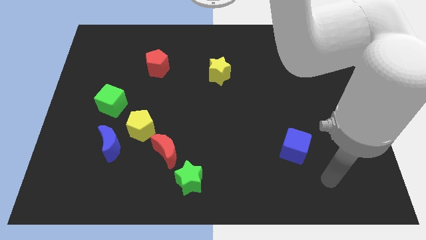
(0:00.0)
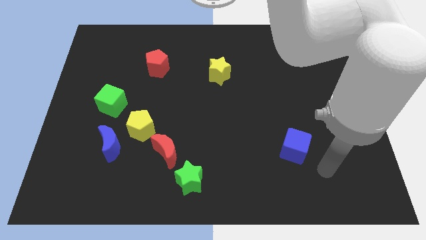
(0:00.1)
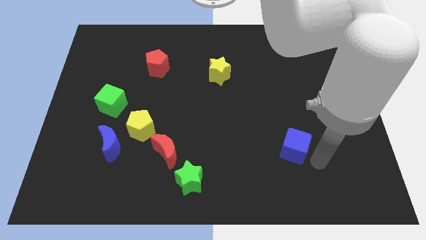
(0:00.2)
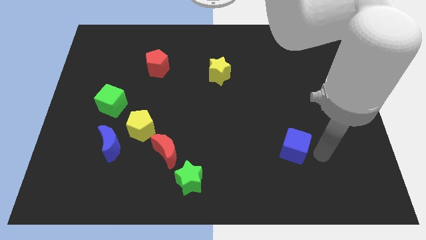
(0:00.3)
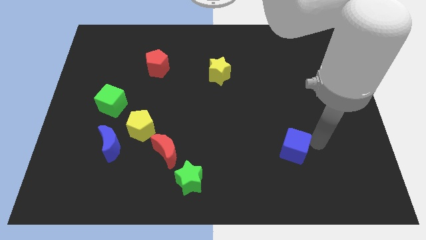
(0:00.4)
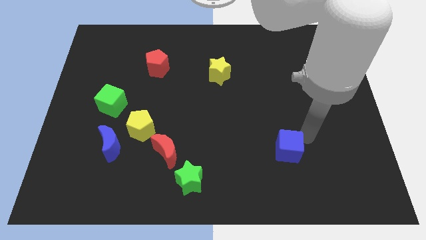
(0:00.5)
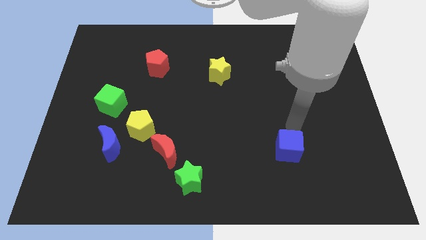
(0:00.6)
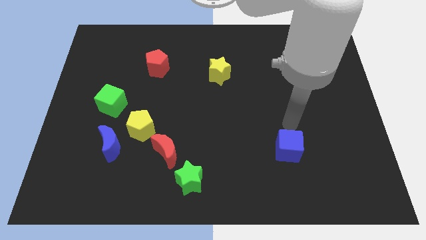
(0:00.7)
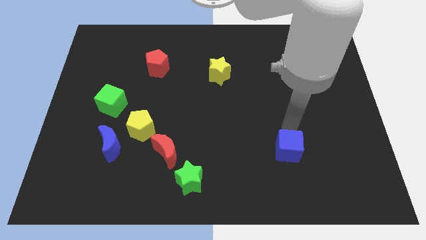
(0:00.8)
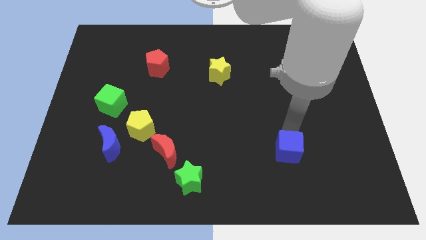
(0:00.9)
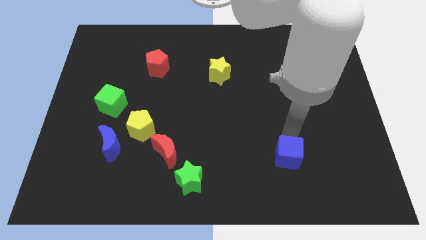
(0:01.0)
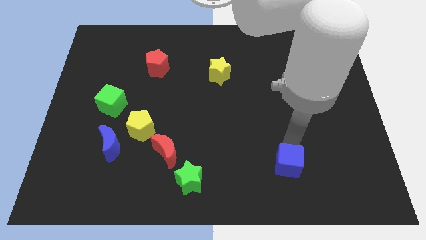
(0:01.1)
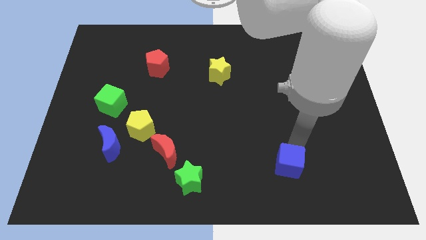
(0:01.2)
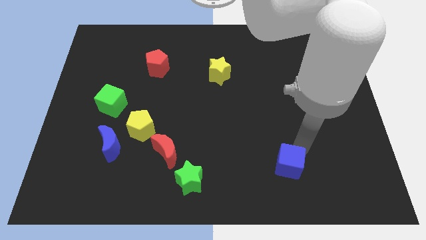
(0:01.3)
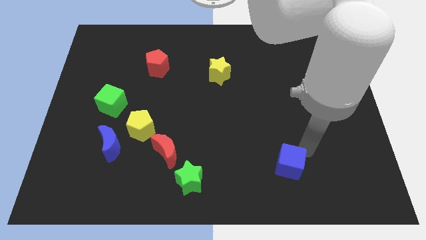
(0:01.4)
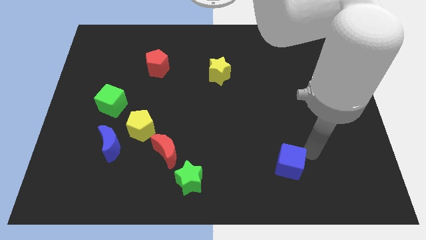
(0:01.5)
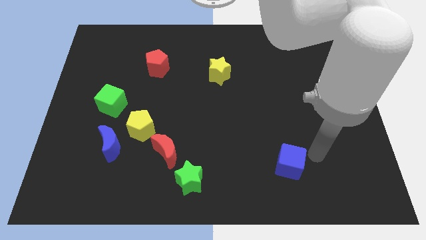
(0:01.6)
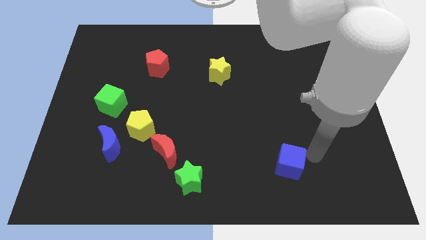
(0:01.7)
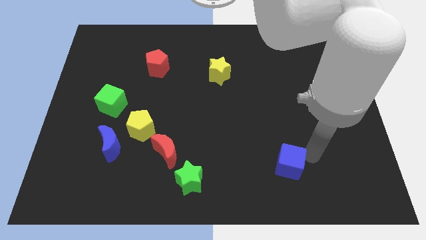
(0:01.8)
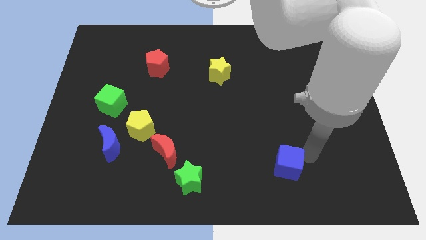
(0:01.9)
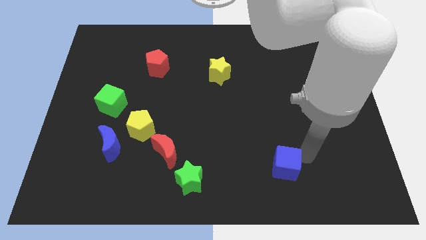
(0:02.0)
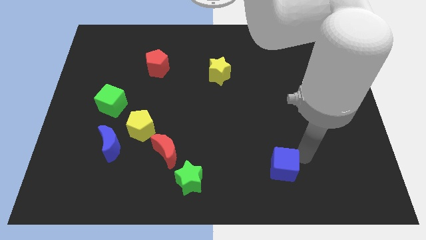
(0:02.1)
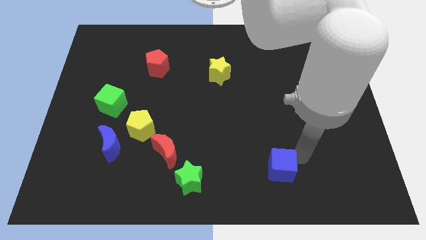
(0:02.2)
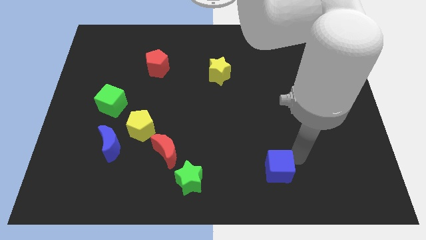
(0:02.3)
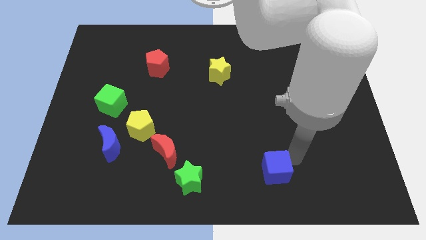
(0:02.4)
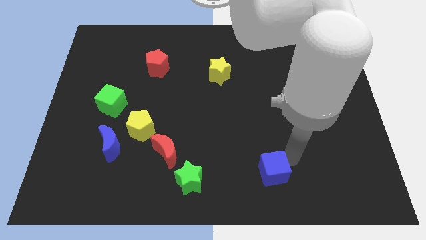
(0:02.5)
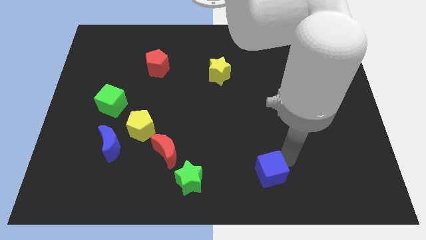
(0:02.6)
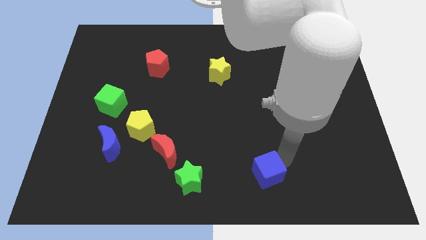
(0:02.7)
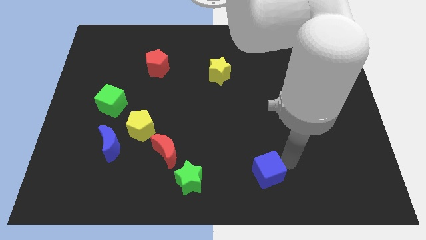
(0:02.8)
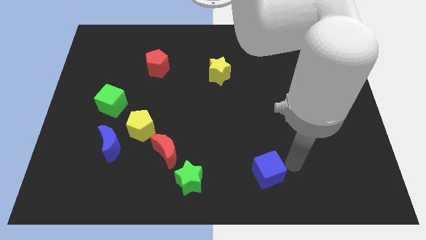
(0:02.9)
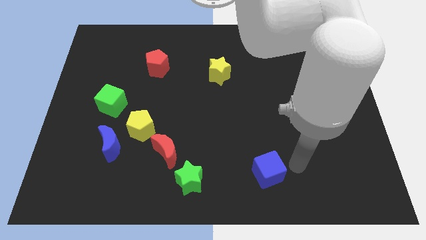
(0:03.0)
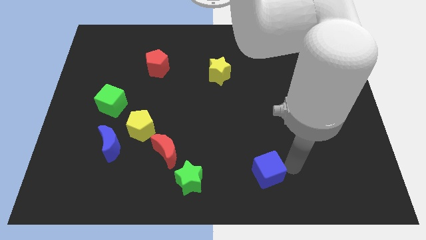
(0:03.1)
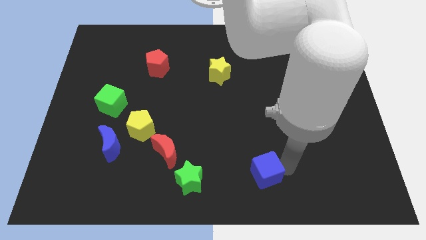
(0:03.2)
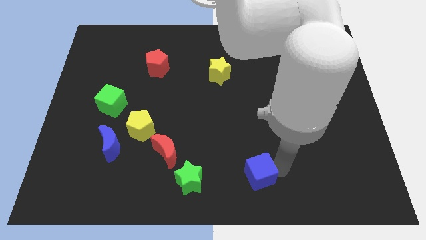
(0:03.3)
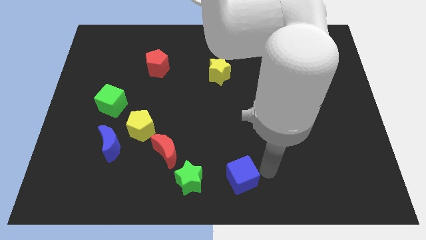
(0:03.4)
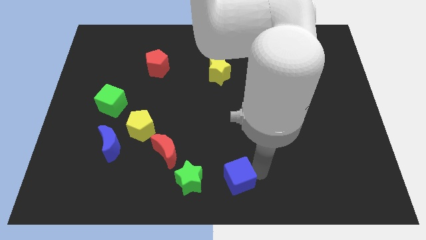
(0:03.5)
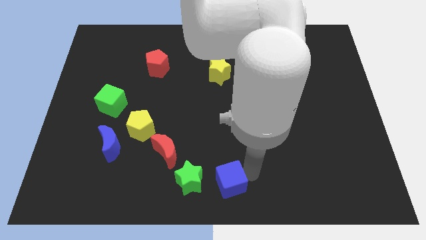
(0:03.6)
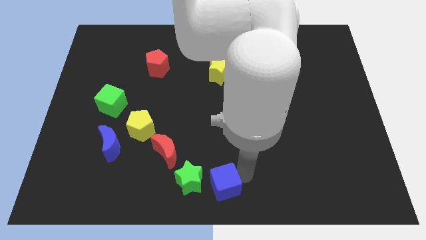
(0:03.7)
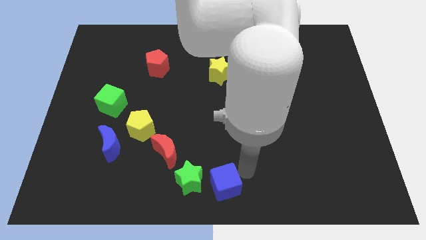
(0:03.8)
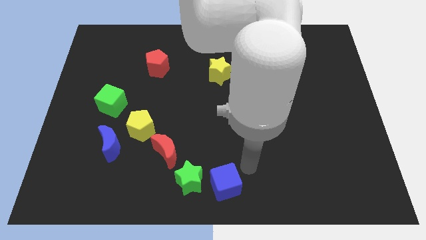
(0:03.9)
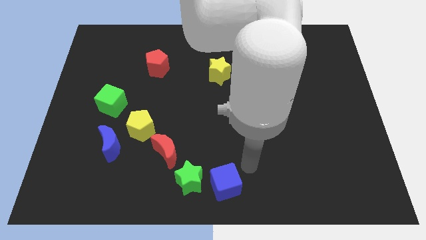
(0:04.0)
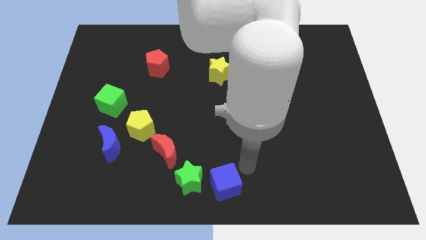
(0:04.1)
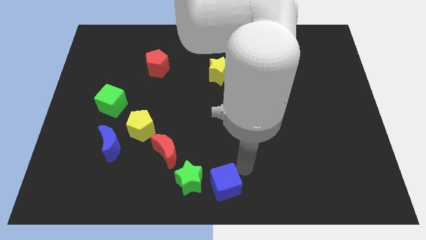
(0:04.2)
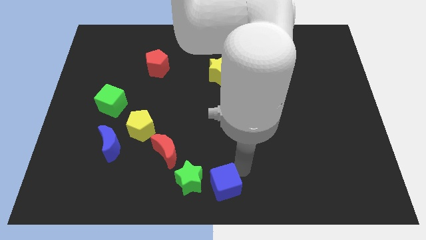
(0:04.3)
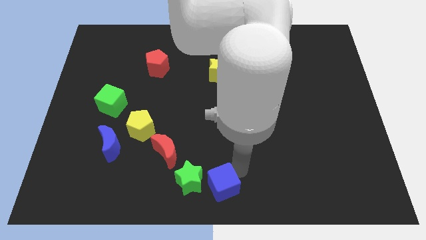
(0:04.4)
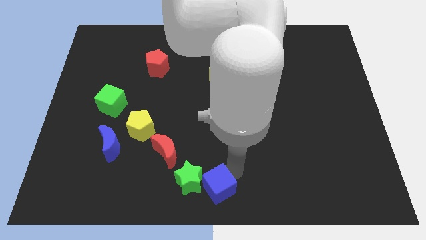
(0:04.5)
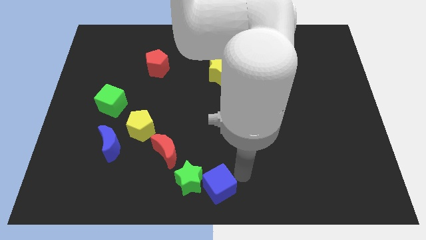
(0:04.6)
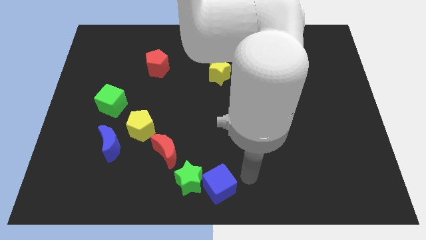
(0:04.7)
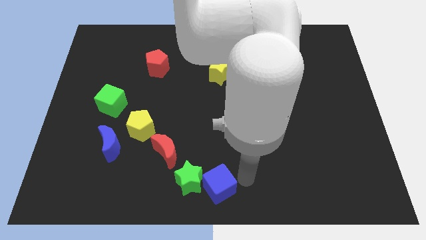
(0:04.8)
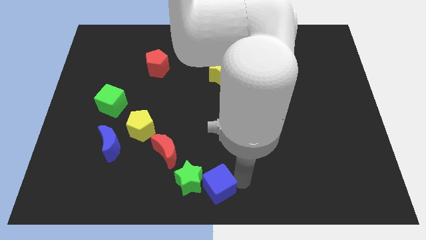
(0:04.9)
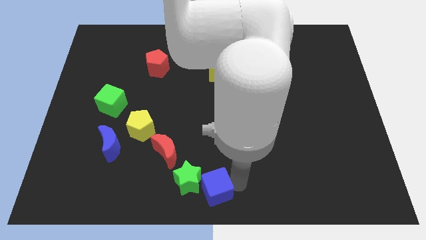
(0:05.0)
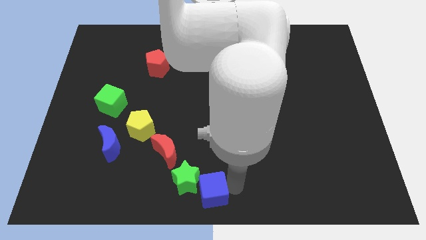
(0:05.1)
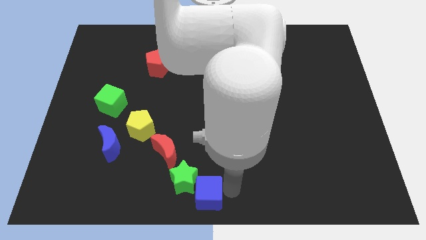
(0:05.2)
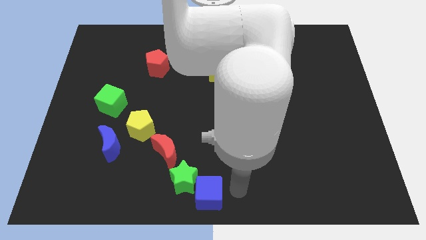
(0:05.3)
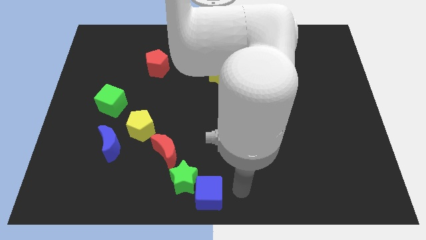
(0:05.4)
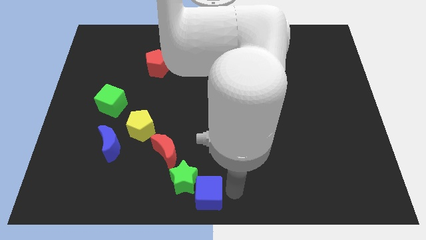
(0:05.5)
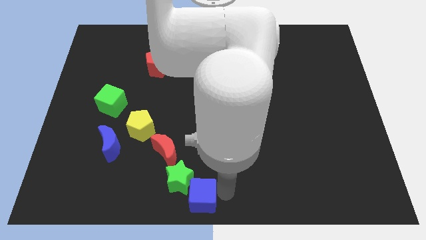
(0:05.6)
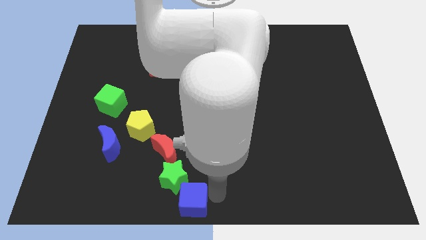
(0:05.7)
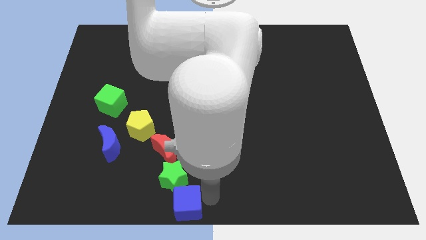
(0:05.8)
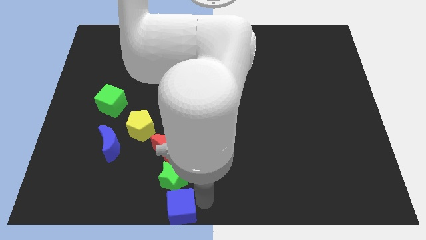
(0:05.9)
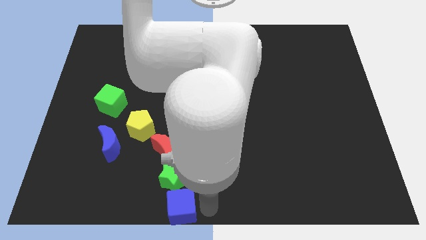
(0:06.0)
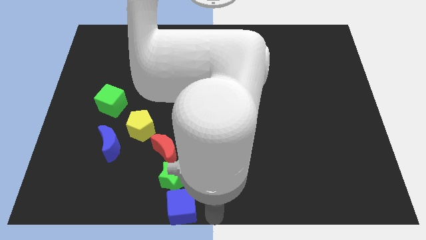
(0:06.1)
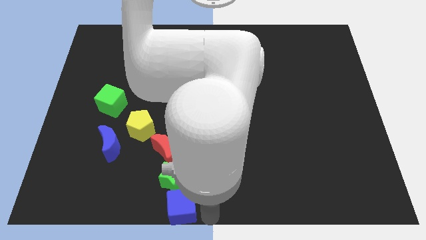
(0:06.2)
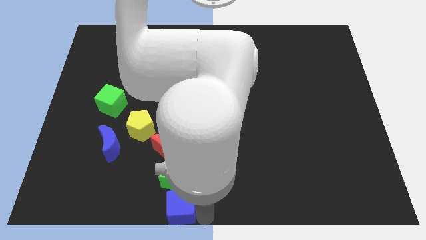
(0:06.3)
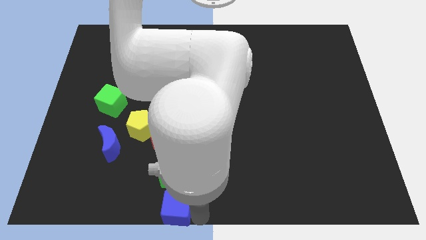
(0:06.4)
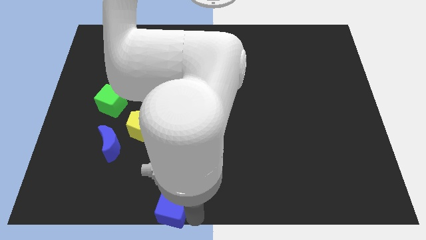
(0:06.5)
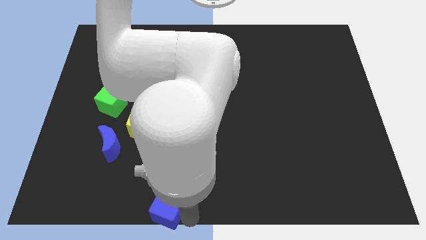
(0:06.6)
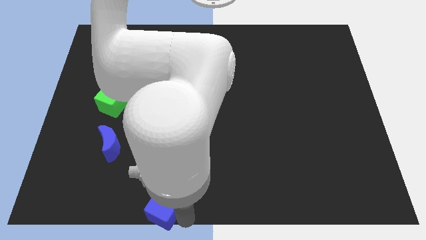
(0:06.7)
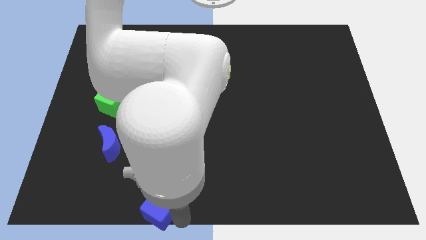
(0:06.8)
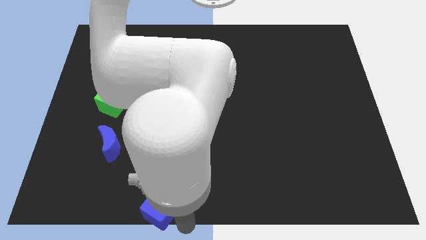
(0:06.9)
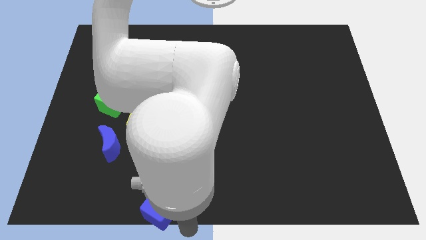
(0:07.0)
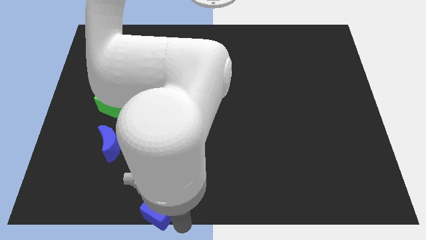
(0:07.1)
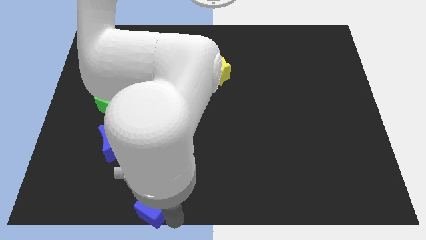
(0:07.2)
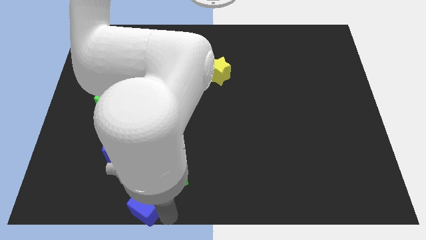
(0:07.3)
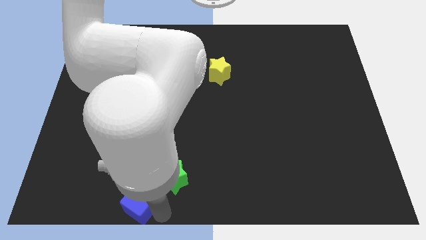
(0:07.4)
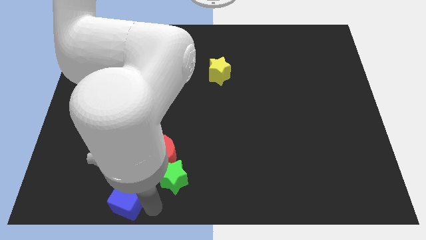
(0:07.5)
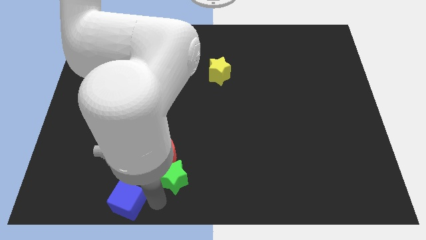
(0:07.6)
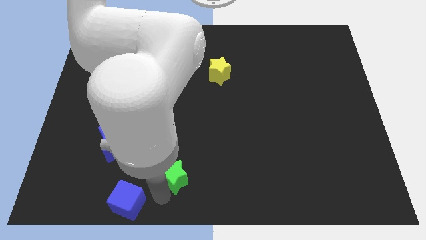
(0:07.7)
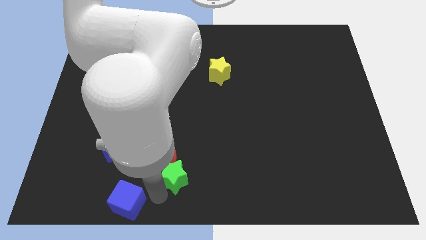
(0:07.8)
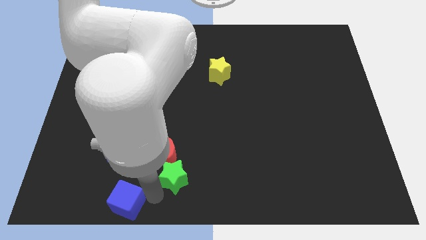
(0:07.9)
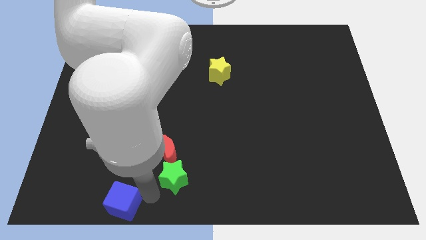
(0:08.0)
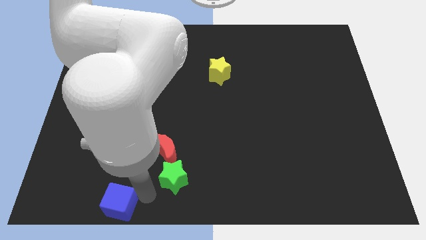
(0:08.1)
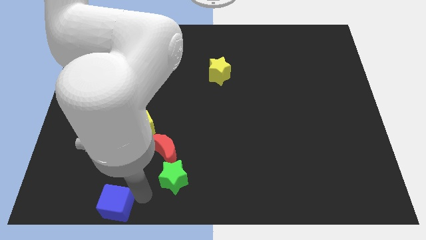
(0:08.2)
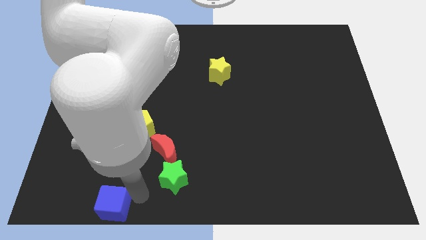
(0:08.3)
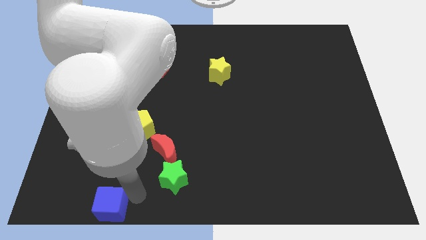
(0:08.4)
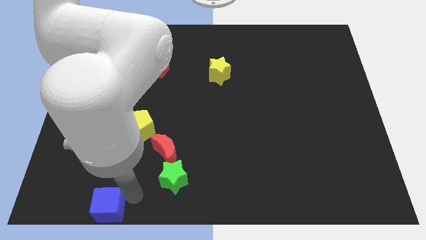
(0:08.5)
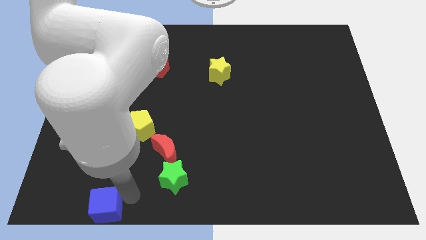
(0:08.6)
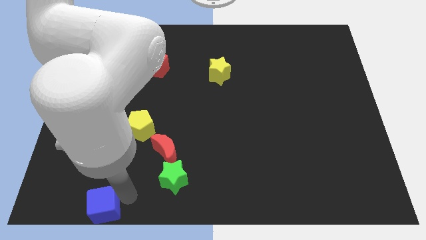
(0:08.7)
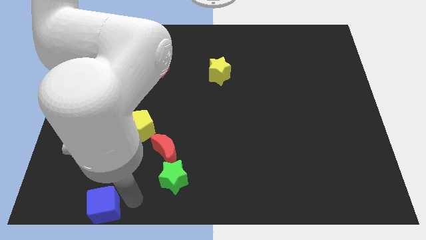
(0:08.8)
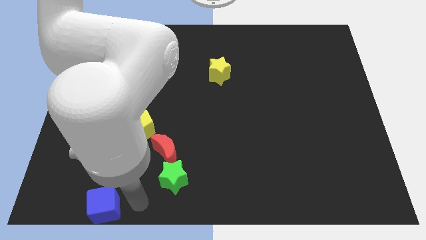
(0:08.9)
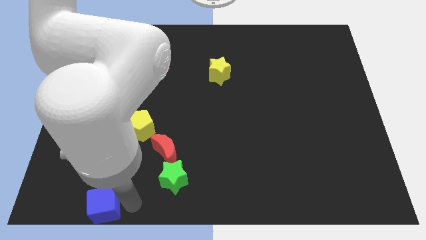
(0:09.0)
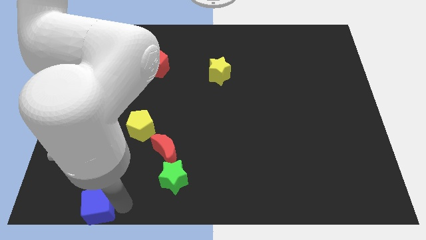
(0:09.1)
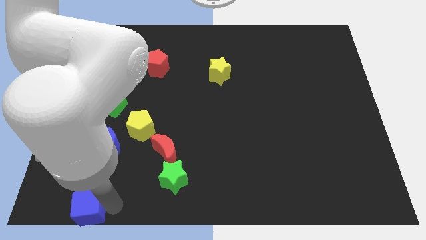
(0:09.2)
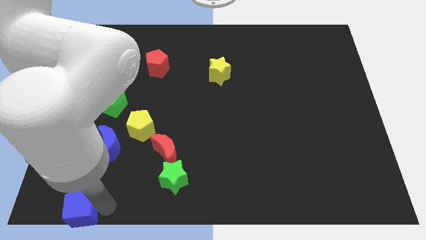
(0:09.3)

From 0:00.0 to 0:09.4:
put the blue cube to the lower left corner
